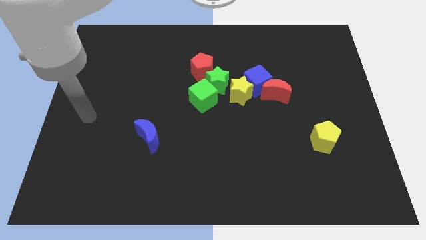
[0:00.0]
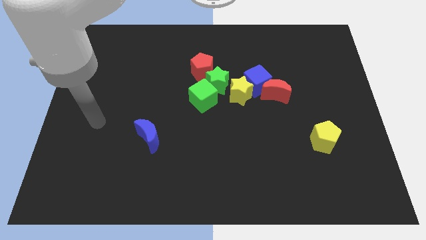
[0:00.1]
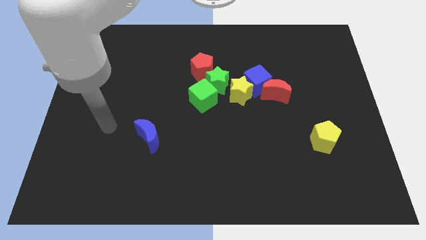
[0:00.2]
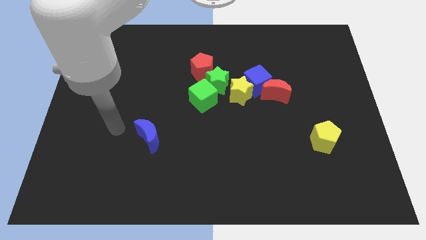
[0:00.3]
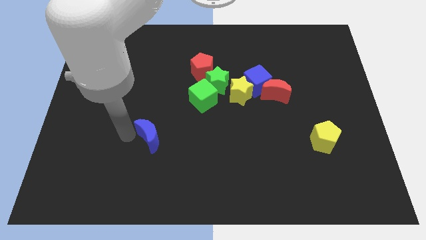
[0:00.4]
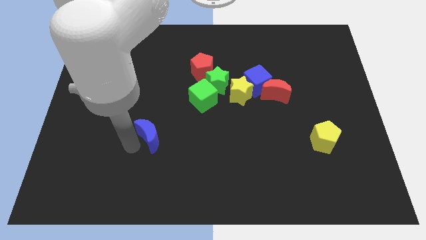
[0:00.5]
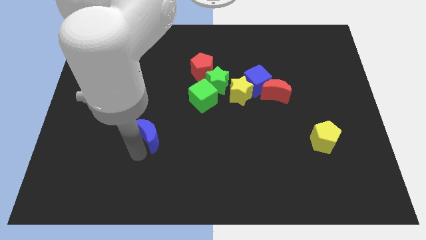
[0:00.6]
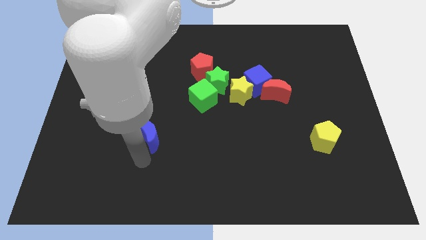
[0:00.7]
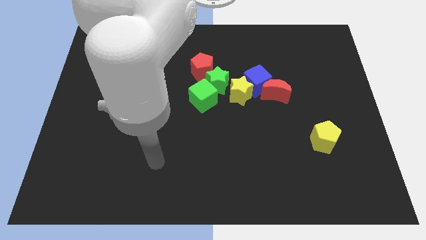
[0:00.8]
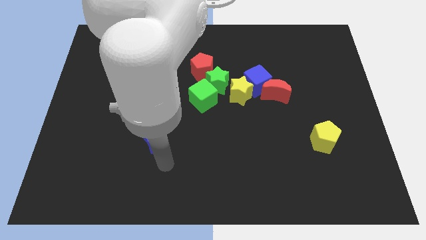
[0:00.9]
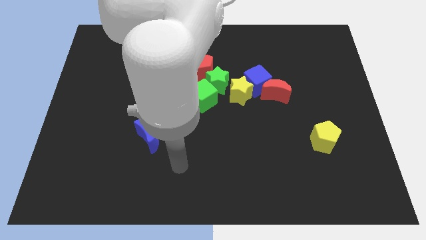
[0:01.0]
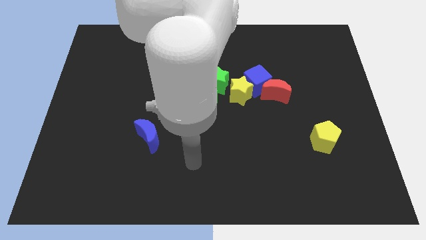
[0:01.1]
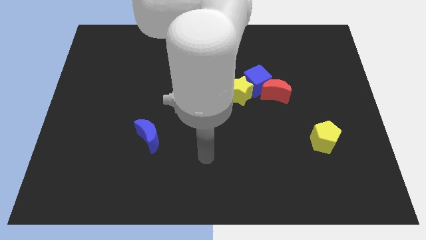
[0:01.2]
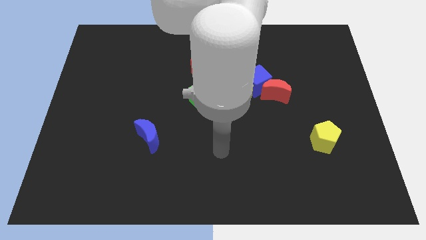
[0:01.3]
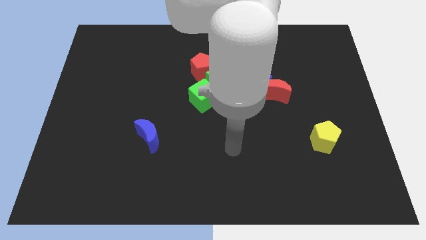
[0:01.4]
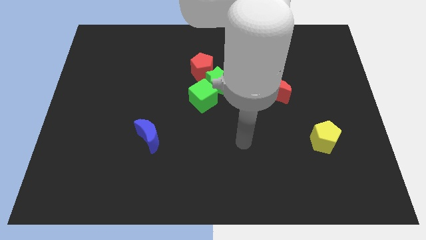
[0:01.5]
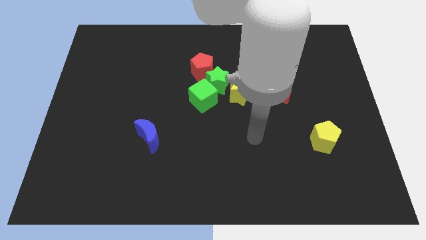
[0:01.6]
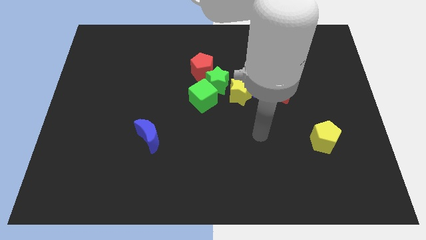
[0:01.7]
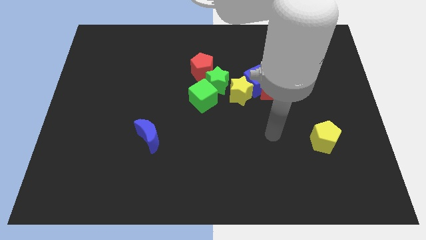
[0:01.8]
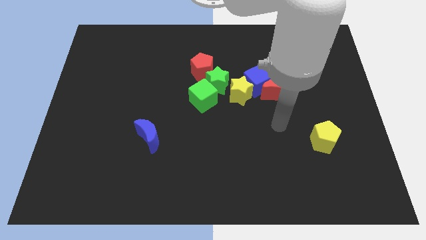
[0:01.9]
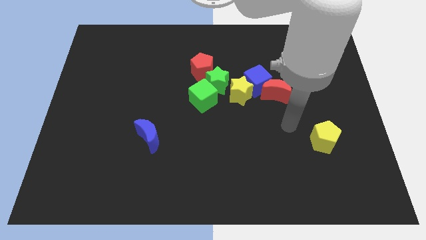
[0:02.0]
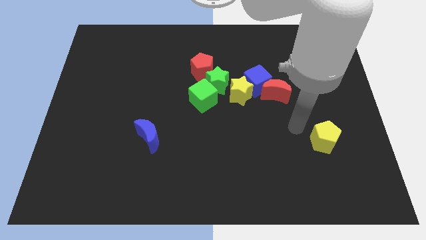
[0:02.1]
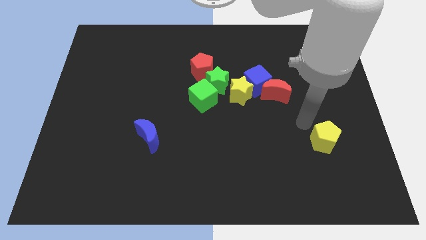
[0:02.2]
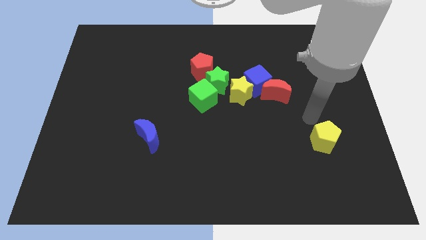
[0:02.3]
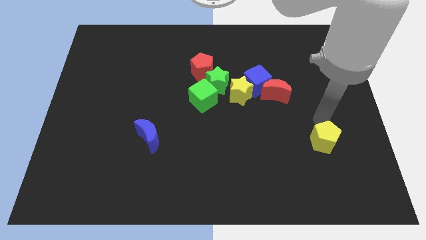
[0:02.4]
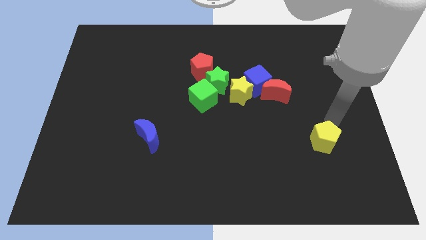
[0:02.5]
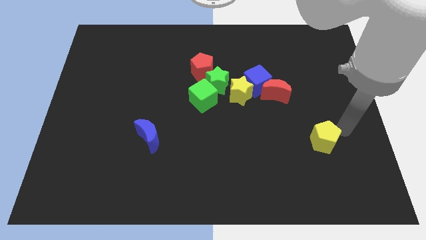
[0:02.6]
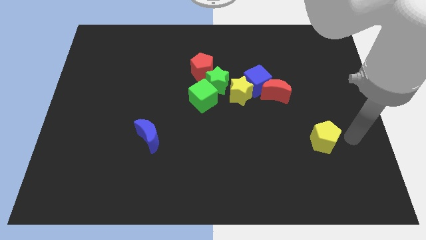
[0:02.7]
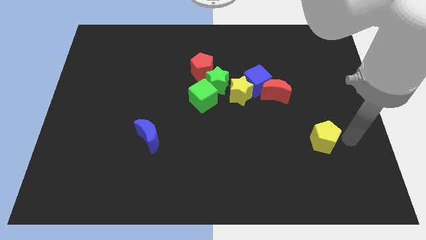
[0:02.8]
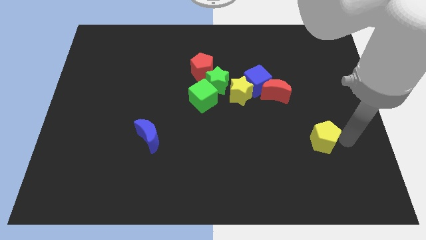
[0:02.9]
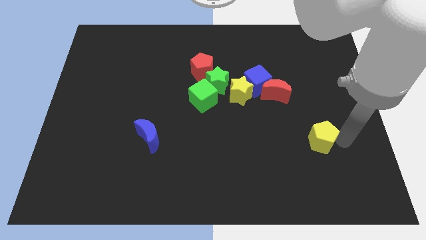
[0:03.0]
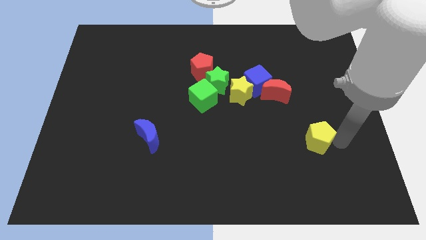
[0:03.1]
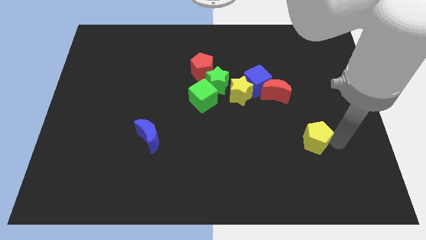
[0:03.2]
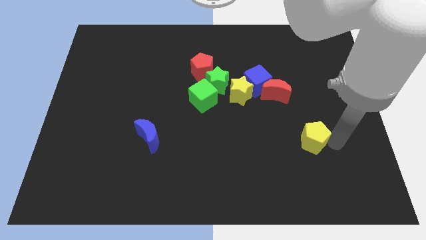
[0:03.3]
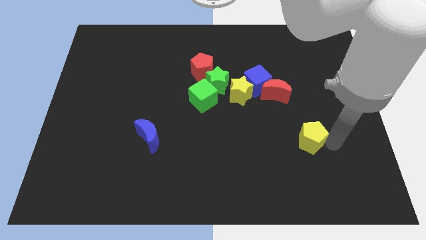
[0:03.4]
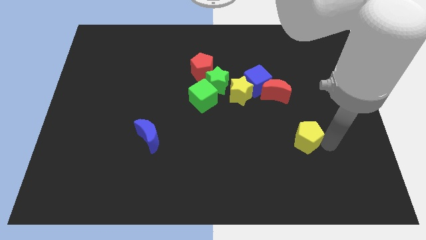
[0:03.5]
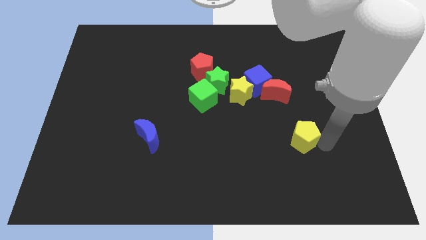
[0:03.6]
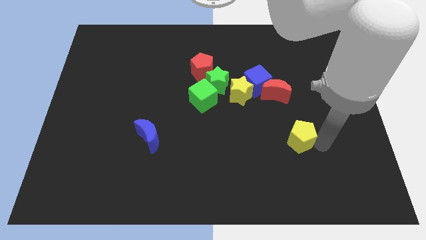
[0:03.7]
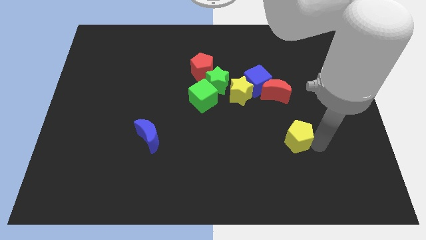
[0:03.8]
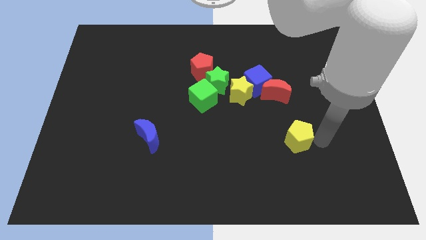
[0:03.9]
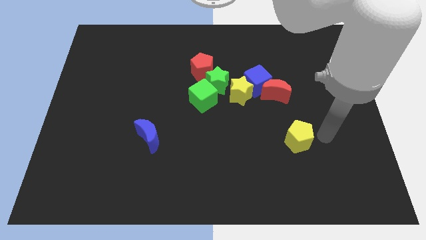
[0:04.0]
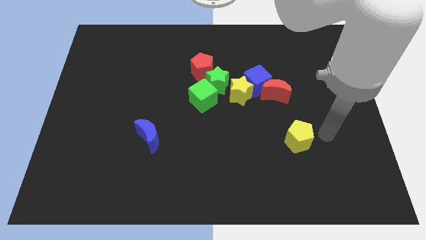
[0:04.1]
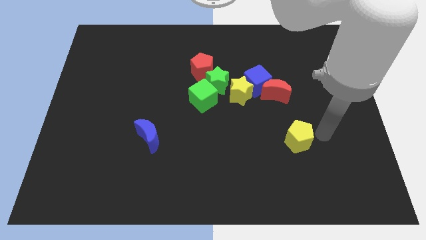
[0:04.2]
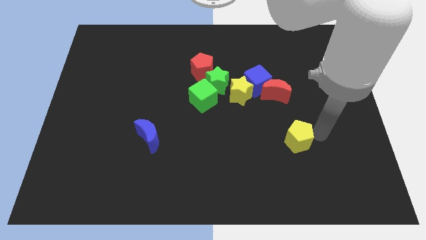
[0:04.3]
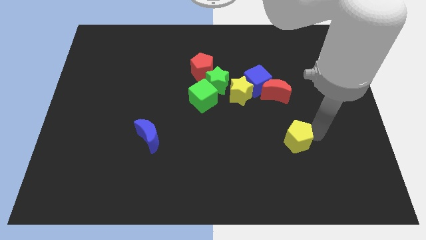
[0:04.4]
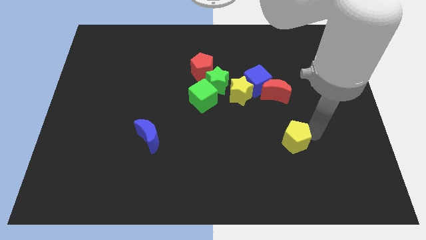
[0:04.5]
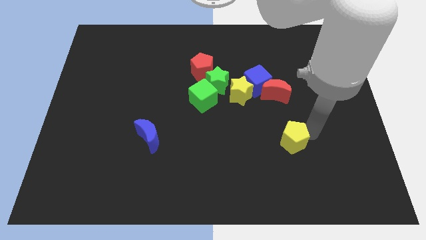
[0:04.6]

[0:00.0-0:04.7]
slightly move the yellow pentagon to the left

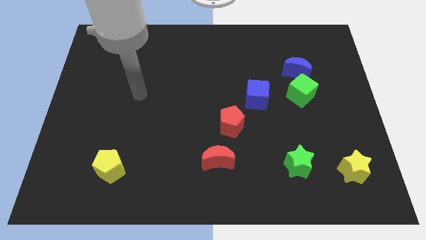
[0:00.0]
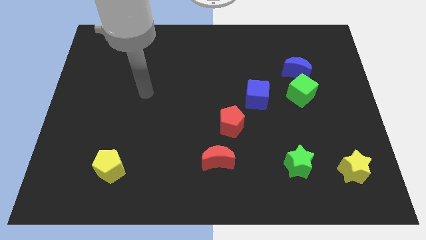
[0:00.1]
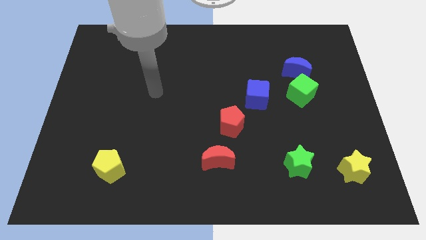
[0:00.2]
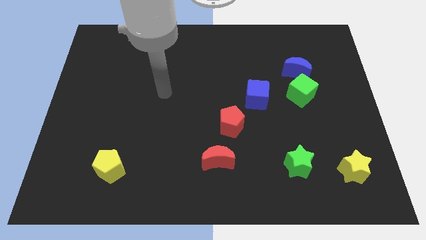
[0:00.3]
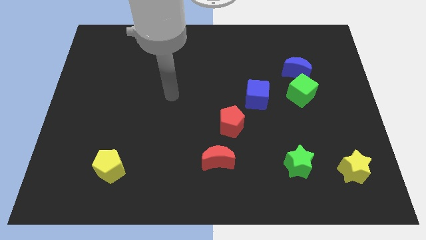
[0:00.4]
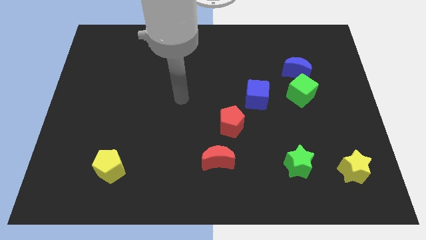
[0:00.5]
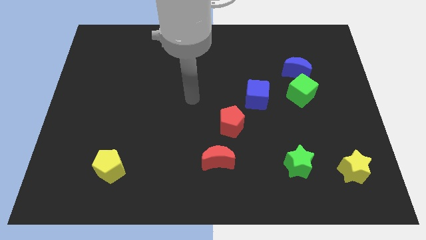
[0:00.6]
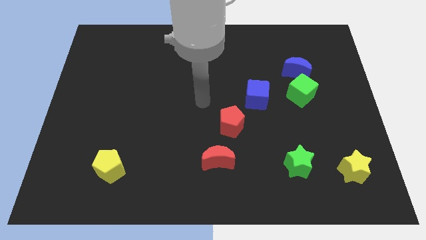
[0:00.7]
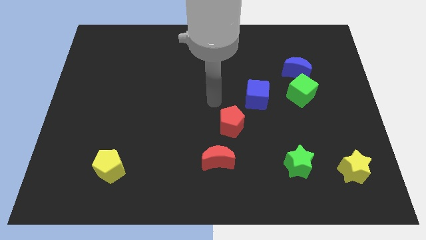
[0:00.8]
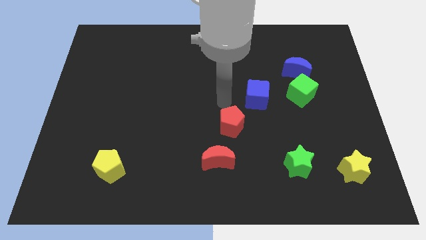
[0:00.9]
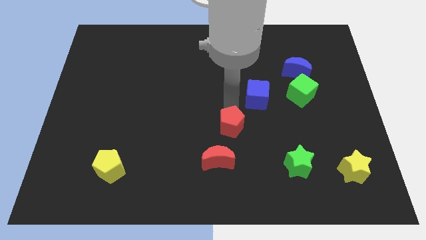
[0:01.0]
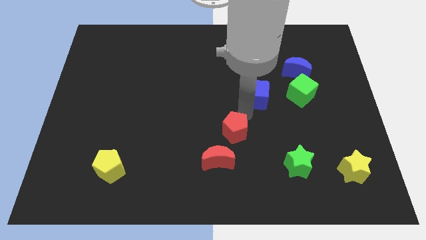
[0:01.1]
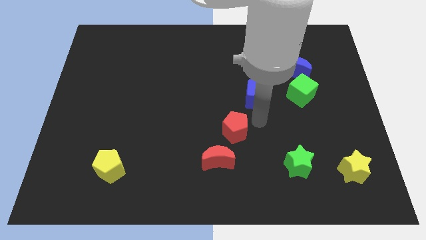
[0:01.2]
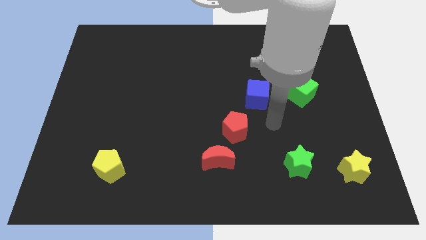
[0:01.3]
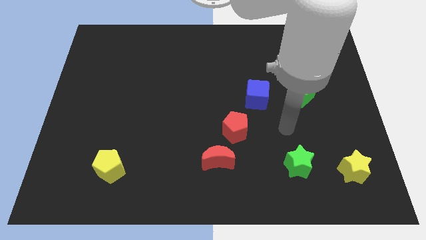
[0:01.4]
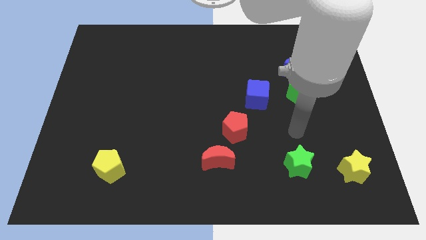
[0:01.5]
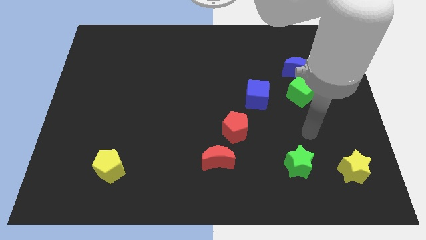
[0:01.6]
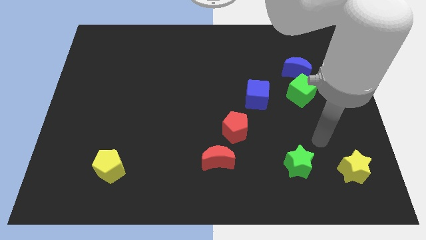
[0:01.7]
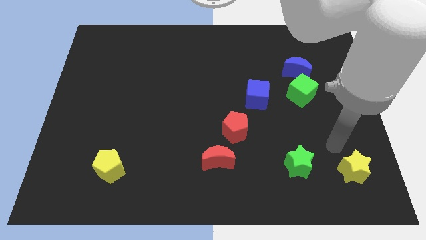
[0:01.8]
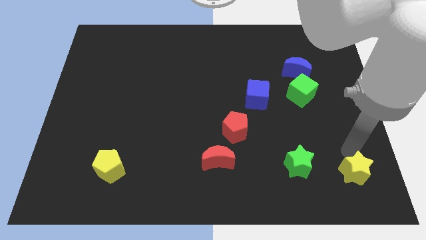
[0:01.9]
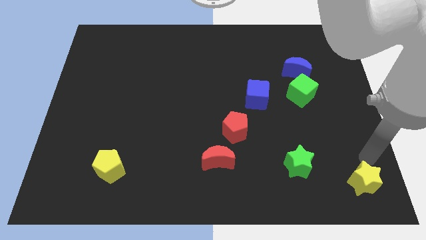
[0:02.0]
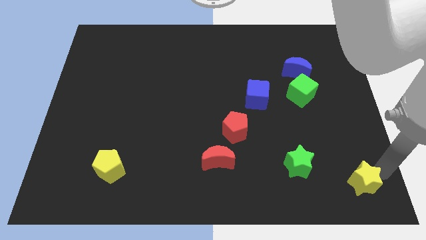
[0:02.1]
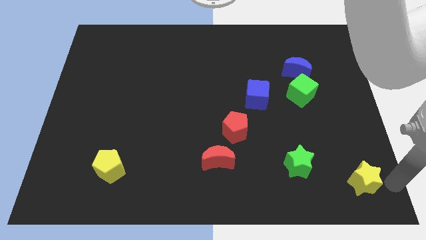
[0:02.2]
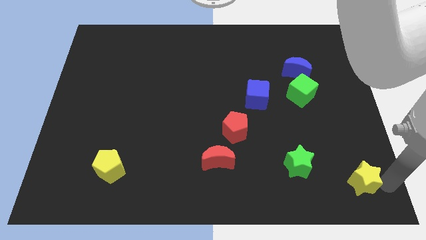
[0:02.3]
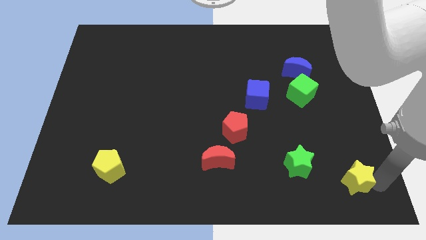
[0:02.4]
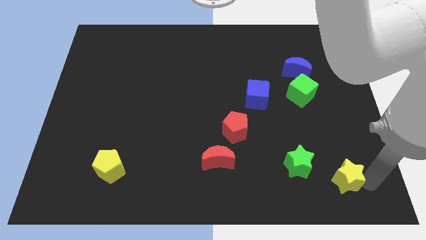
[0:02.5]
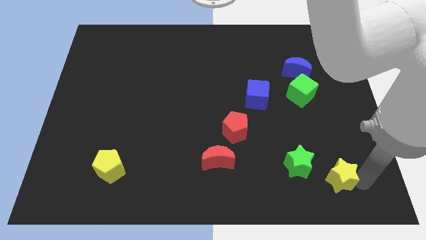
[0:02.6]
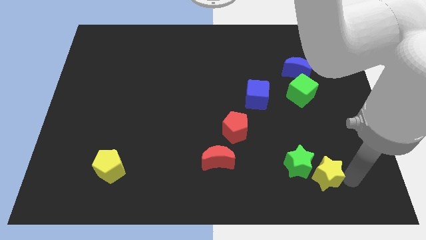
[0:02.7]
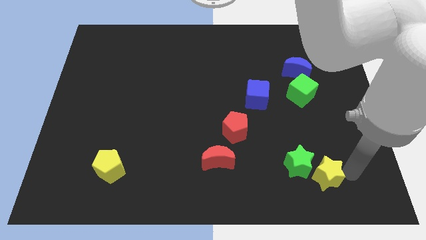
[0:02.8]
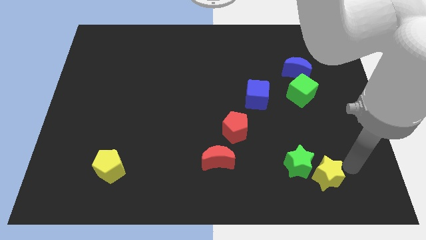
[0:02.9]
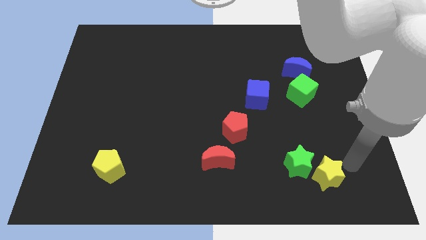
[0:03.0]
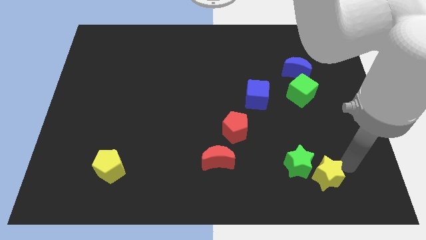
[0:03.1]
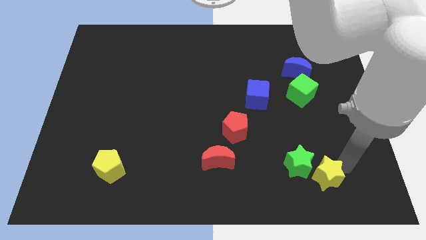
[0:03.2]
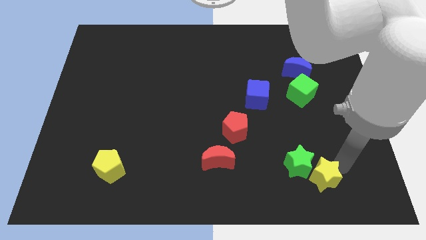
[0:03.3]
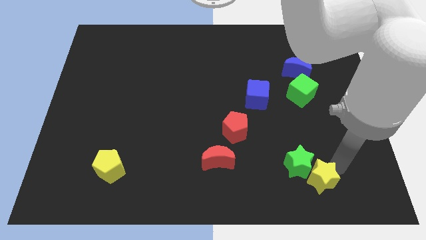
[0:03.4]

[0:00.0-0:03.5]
move the yellow star left a little
